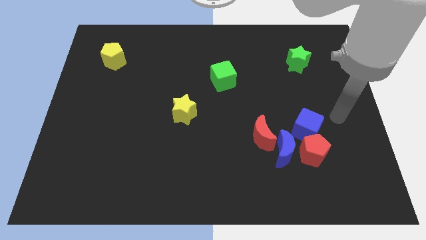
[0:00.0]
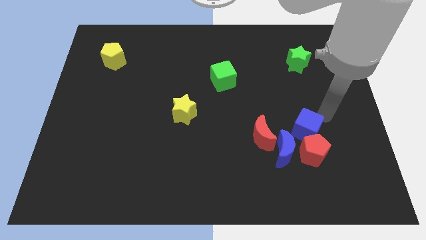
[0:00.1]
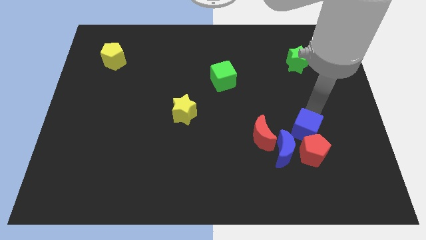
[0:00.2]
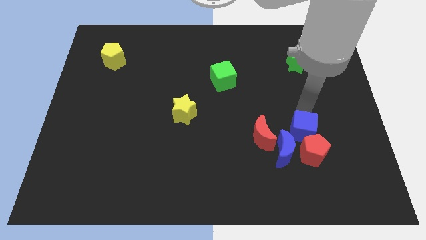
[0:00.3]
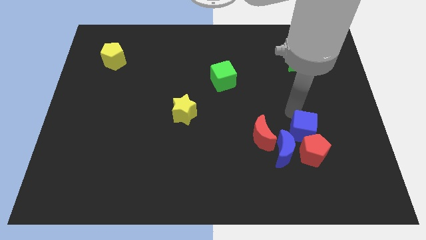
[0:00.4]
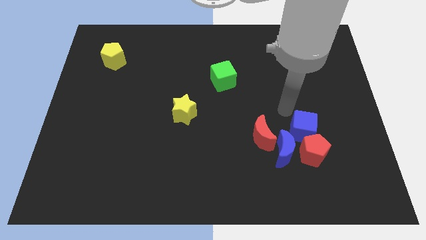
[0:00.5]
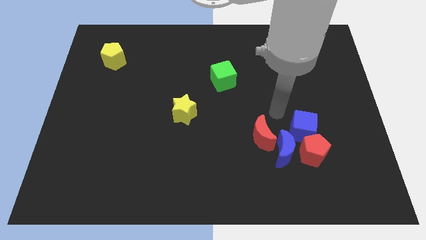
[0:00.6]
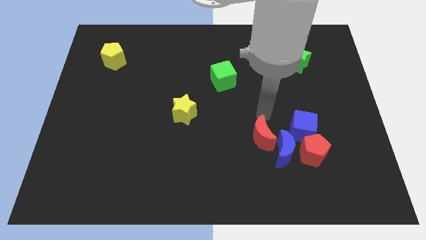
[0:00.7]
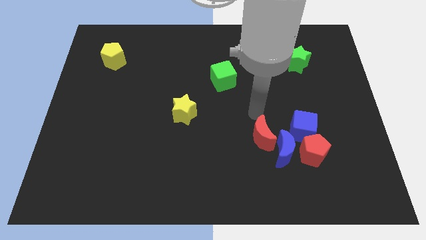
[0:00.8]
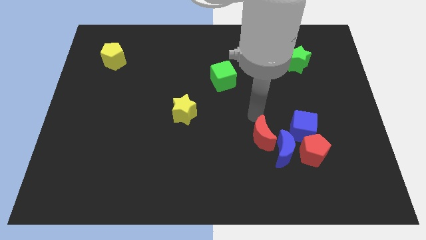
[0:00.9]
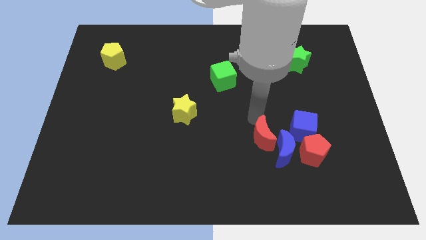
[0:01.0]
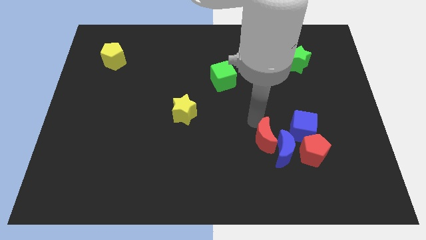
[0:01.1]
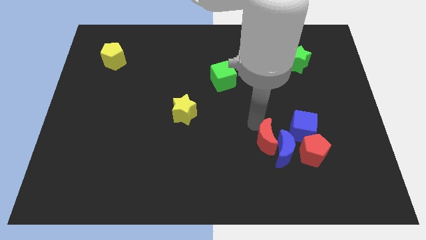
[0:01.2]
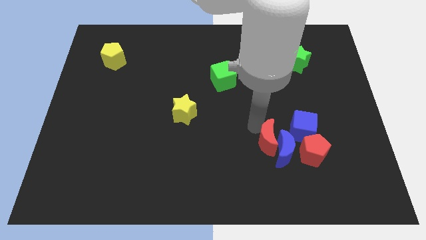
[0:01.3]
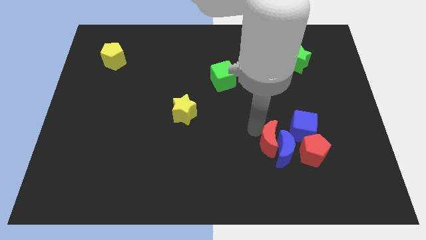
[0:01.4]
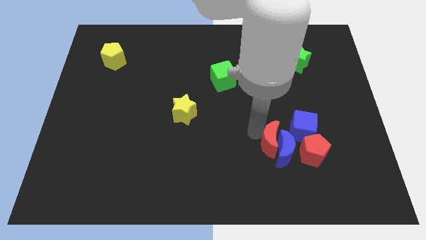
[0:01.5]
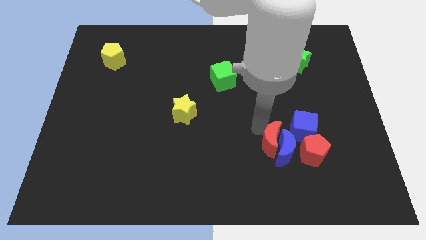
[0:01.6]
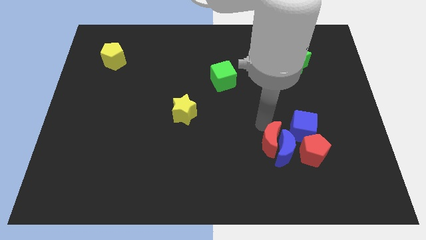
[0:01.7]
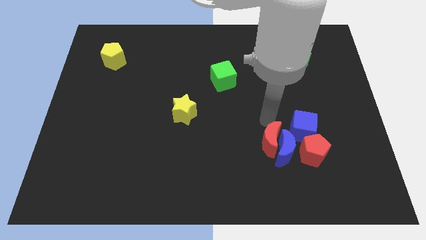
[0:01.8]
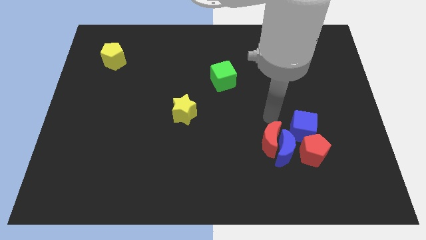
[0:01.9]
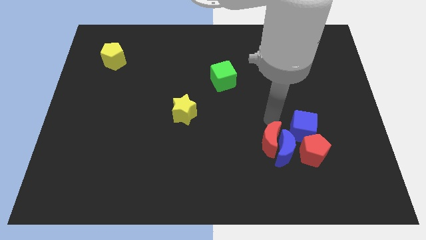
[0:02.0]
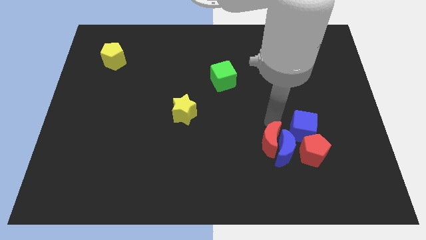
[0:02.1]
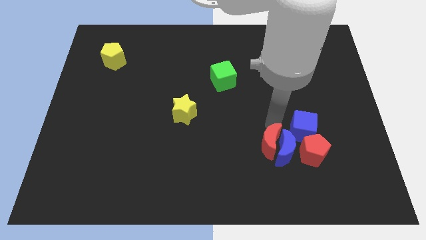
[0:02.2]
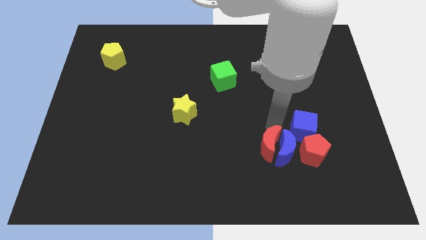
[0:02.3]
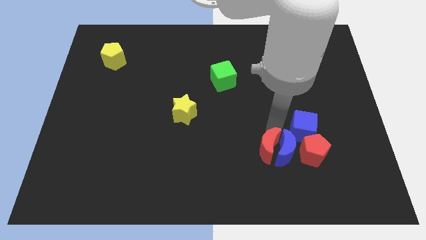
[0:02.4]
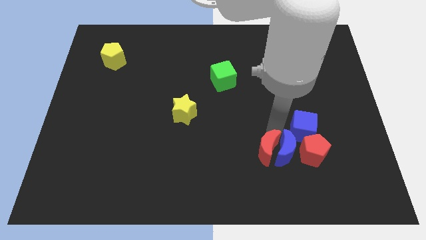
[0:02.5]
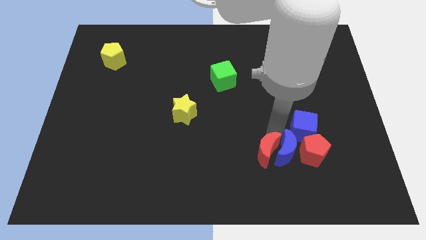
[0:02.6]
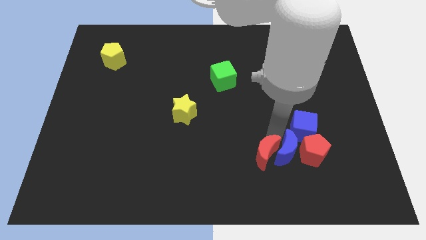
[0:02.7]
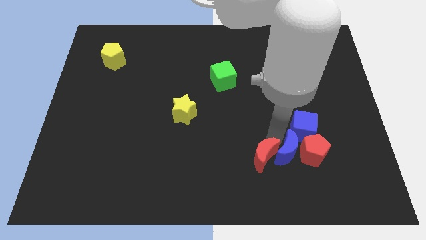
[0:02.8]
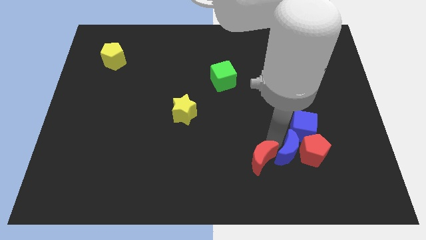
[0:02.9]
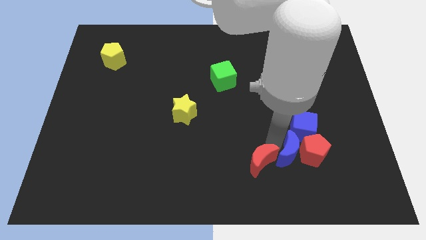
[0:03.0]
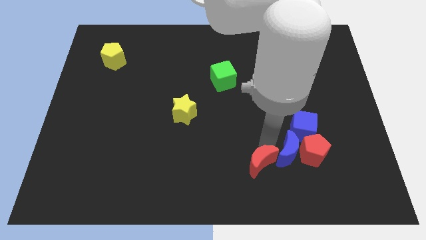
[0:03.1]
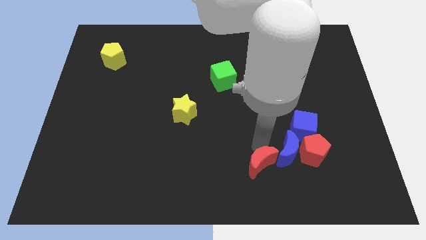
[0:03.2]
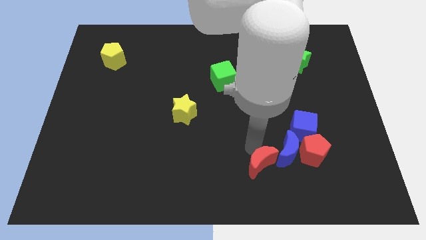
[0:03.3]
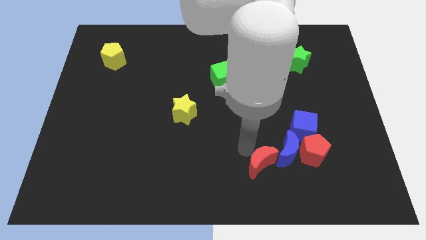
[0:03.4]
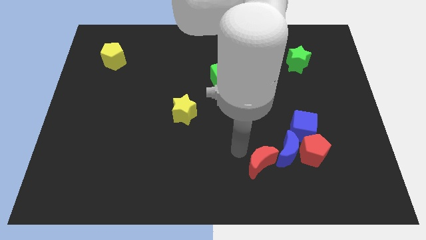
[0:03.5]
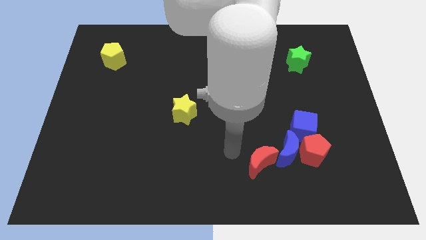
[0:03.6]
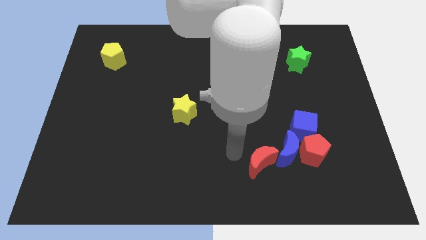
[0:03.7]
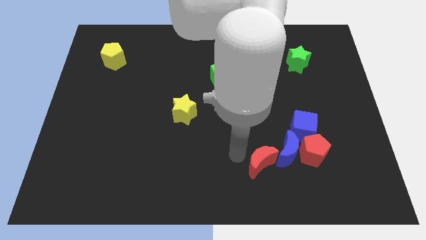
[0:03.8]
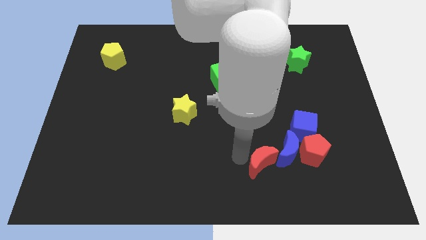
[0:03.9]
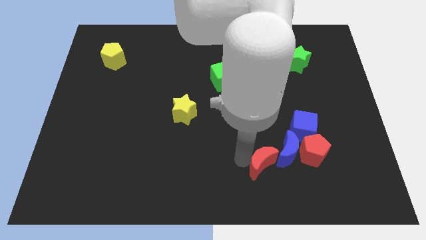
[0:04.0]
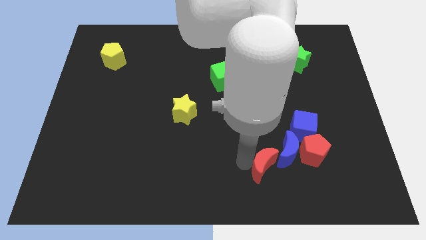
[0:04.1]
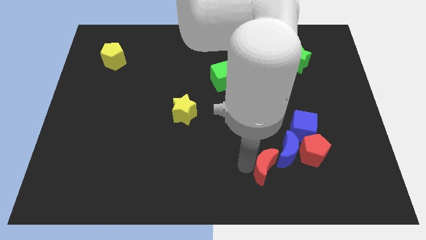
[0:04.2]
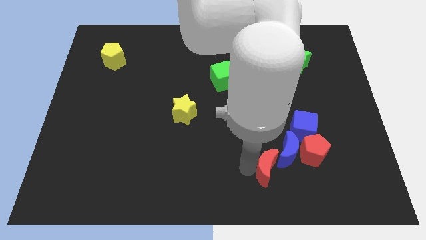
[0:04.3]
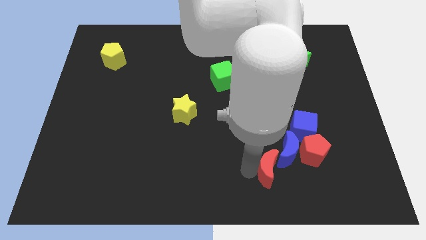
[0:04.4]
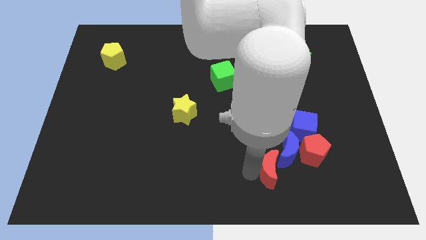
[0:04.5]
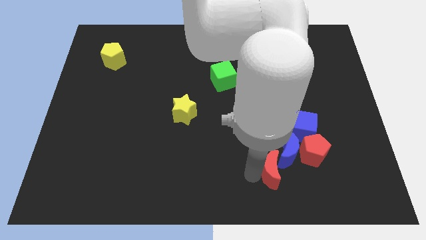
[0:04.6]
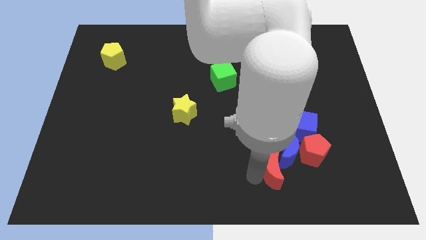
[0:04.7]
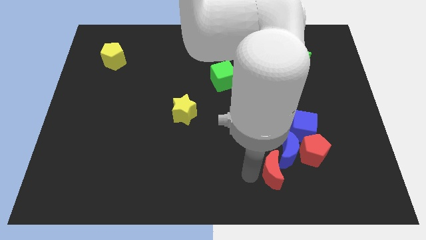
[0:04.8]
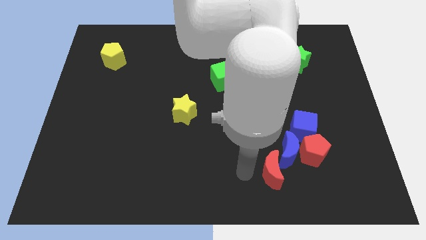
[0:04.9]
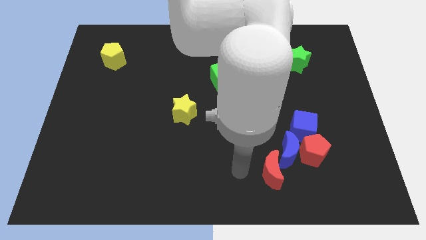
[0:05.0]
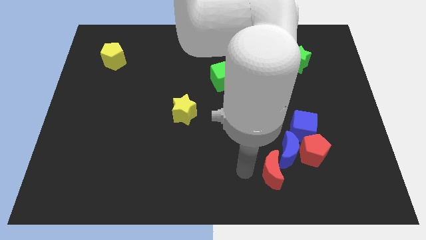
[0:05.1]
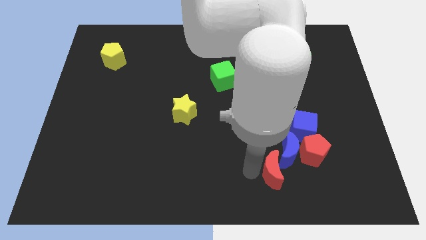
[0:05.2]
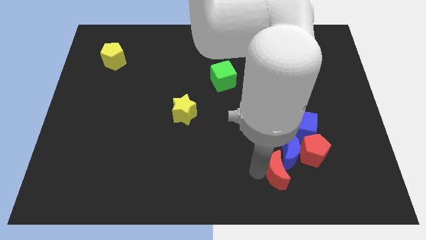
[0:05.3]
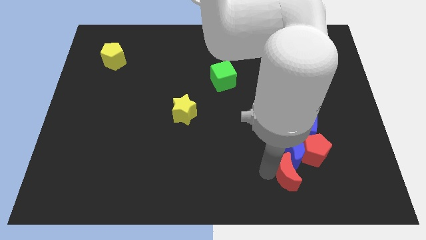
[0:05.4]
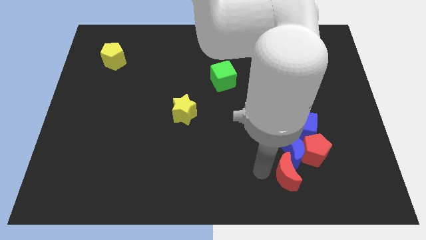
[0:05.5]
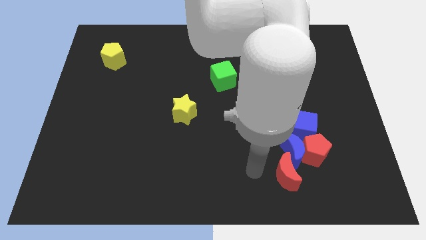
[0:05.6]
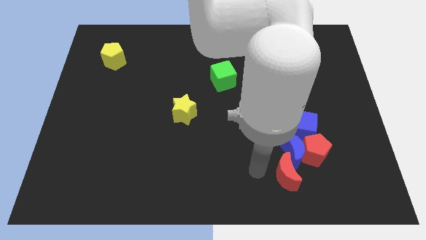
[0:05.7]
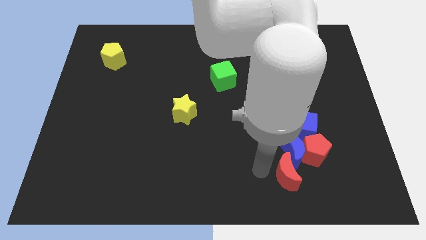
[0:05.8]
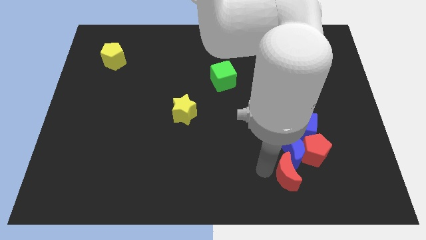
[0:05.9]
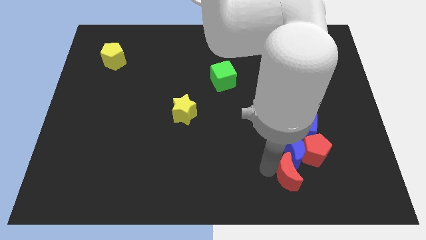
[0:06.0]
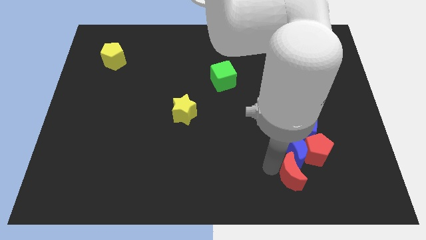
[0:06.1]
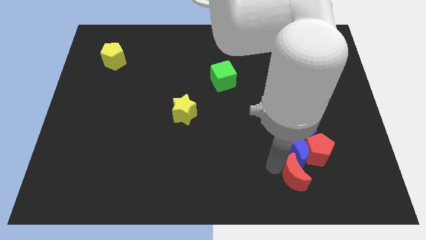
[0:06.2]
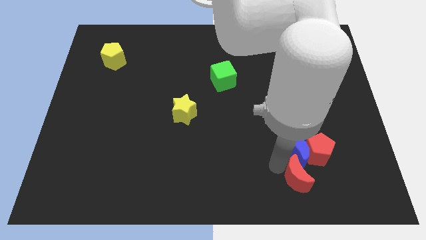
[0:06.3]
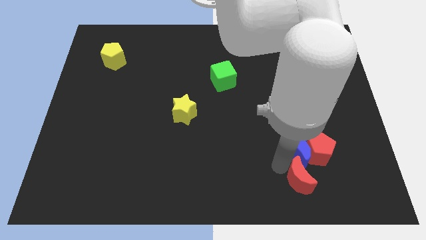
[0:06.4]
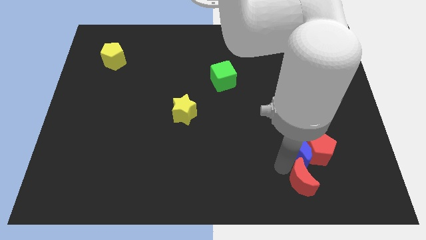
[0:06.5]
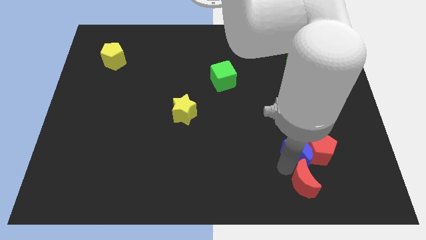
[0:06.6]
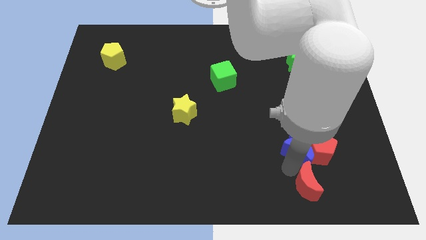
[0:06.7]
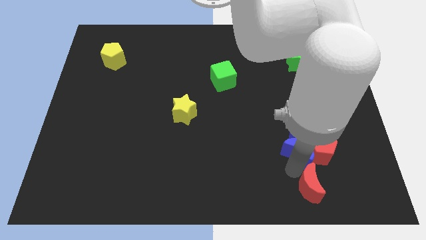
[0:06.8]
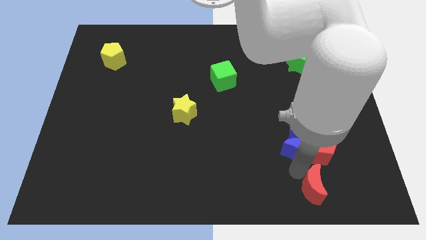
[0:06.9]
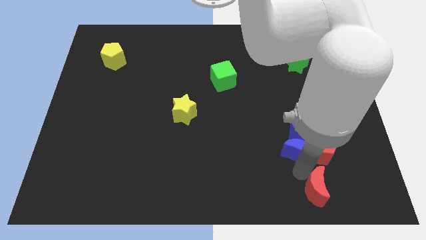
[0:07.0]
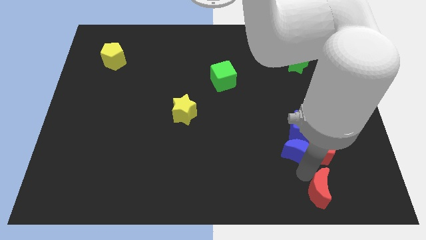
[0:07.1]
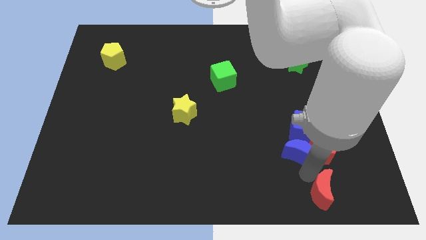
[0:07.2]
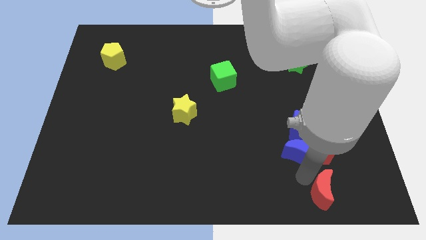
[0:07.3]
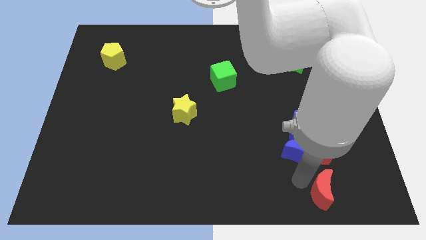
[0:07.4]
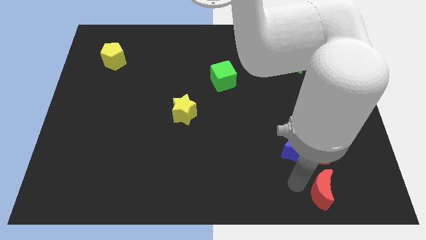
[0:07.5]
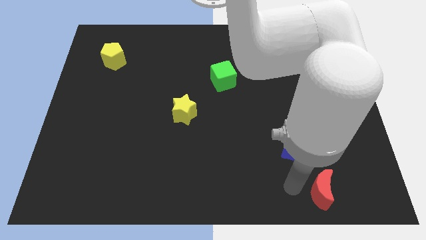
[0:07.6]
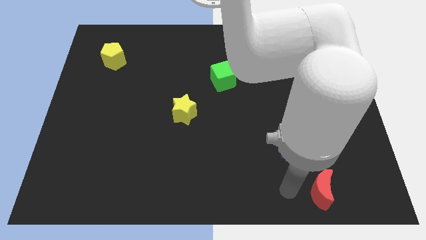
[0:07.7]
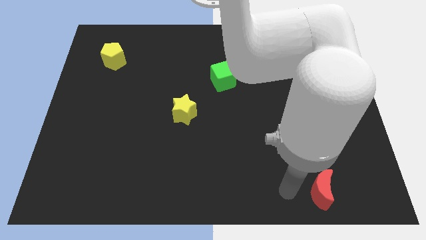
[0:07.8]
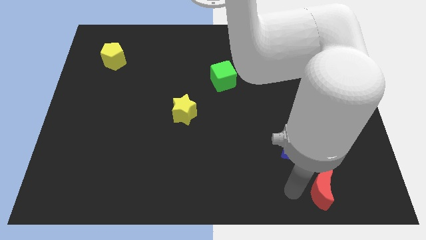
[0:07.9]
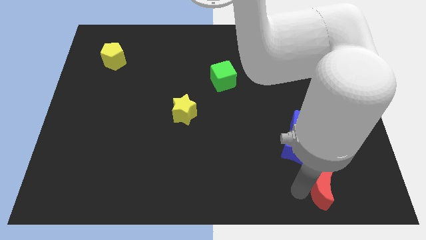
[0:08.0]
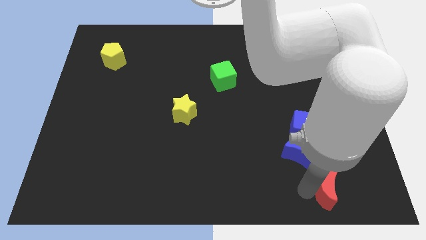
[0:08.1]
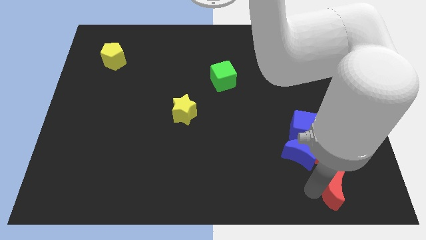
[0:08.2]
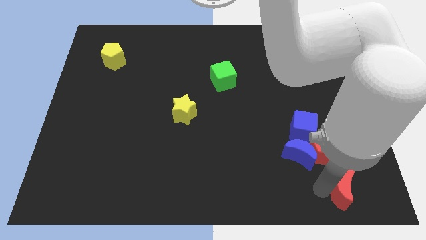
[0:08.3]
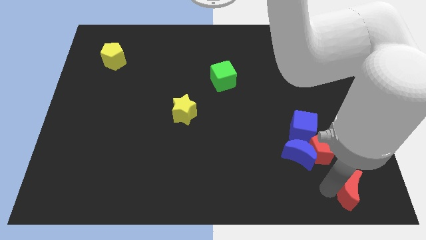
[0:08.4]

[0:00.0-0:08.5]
slide the red moon to the bottom right of the board
